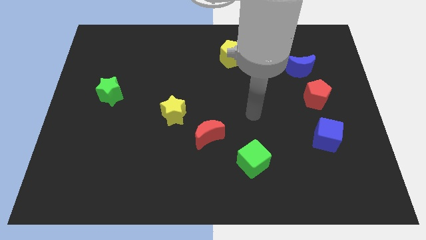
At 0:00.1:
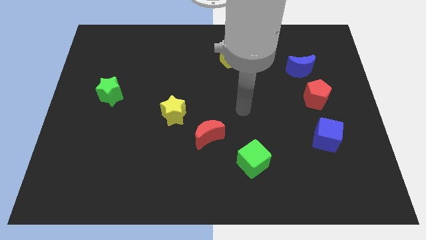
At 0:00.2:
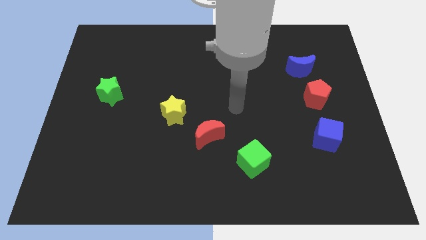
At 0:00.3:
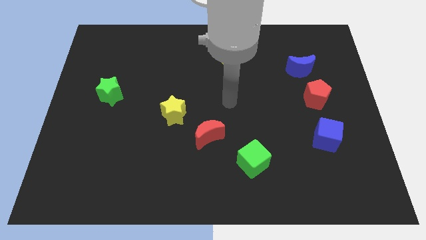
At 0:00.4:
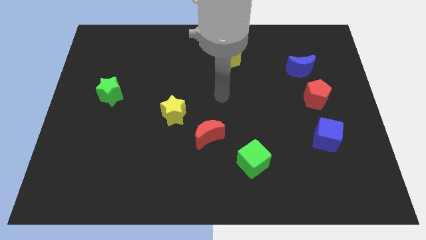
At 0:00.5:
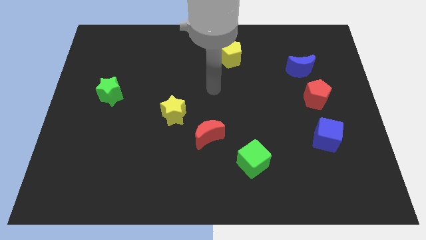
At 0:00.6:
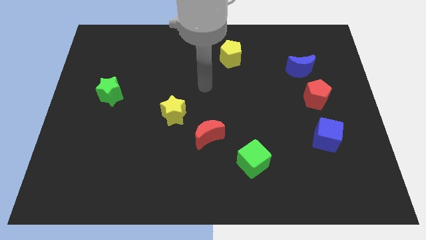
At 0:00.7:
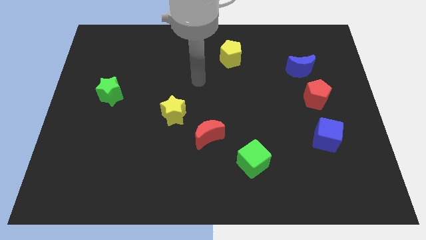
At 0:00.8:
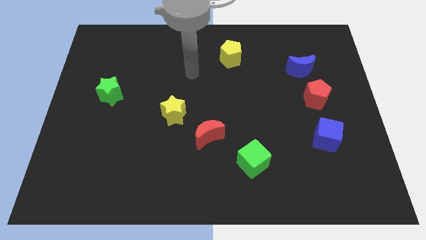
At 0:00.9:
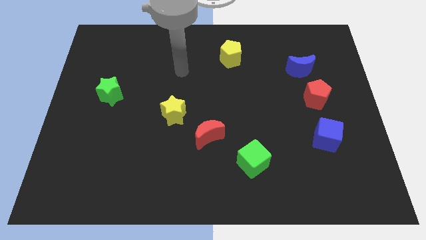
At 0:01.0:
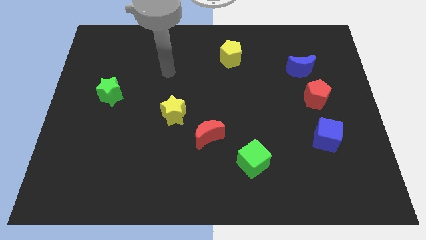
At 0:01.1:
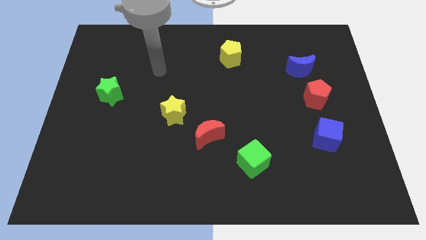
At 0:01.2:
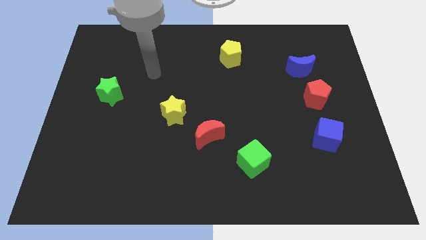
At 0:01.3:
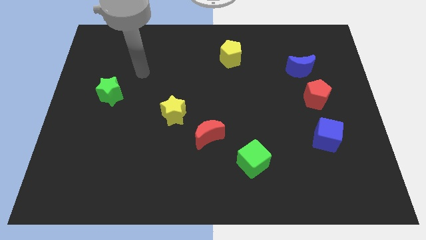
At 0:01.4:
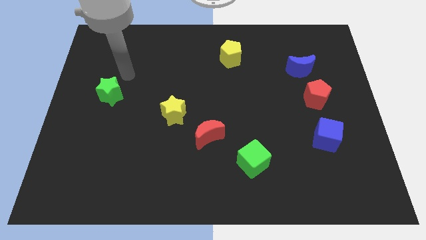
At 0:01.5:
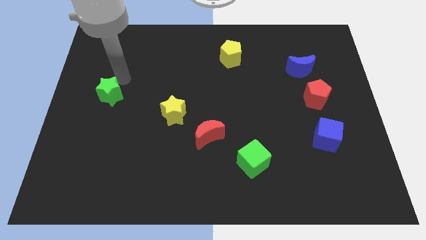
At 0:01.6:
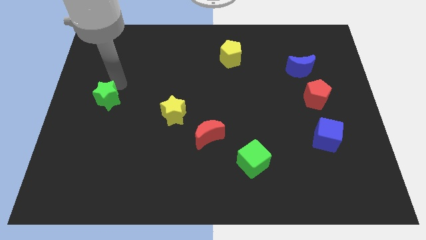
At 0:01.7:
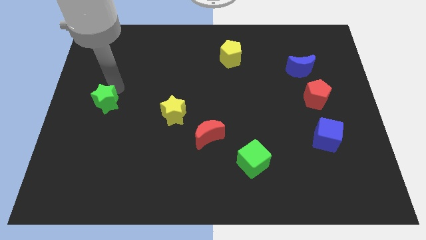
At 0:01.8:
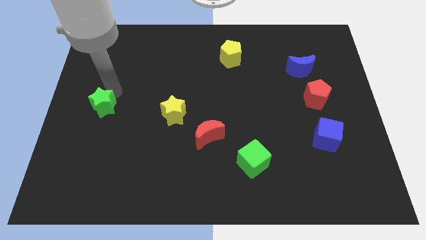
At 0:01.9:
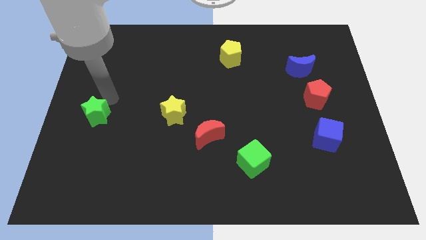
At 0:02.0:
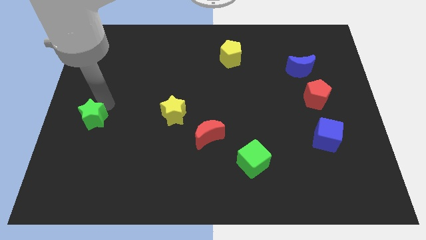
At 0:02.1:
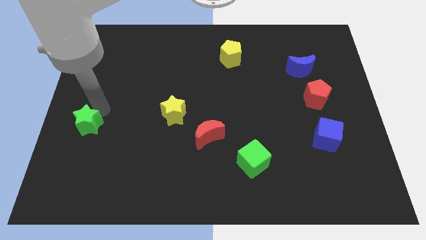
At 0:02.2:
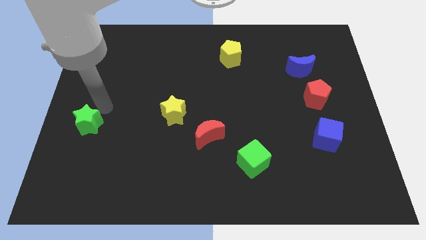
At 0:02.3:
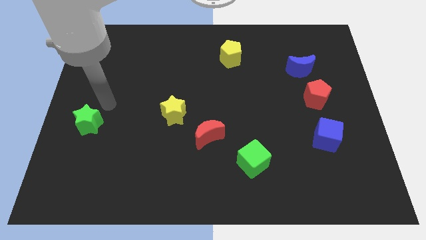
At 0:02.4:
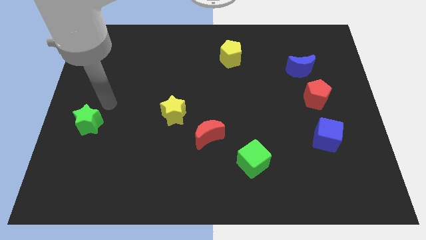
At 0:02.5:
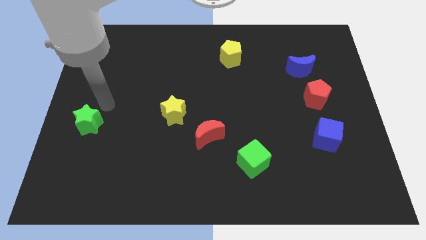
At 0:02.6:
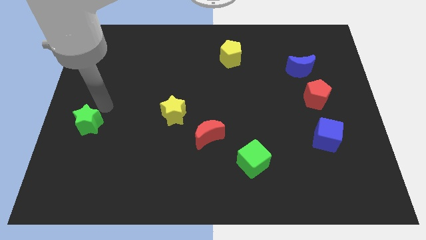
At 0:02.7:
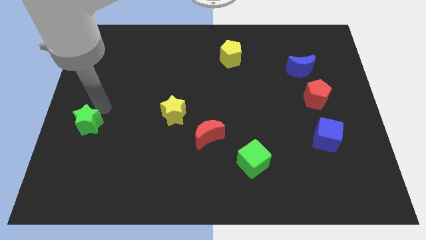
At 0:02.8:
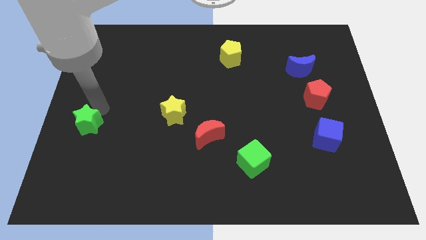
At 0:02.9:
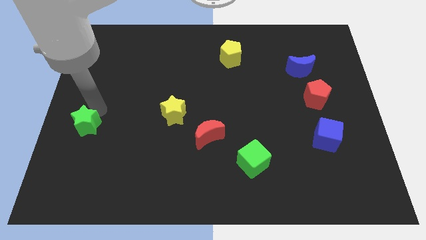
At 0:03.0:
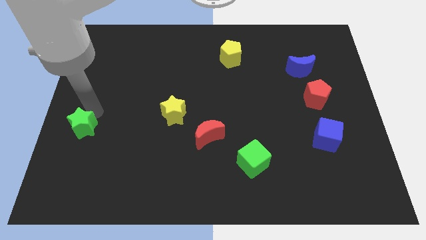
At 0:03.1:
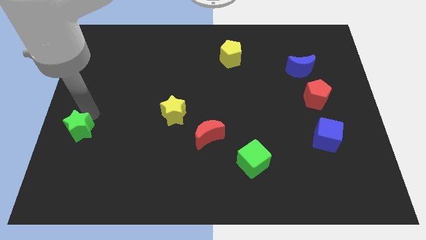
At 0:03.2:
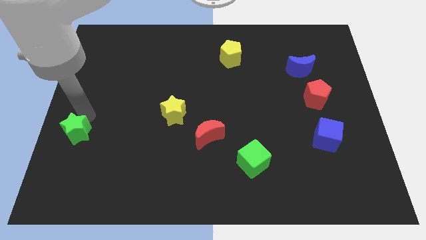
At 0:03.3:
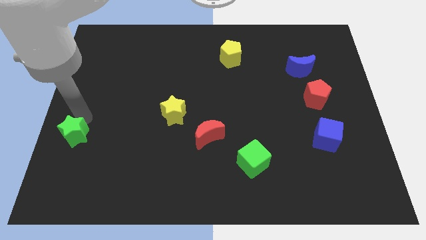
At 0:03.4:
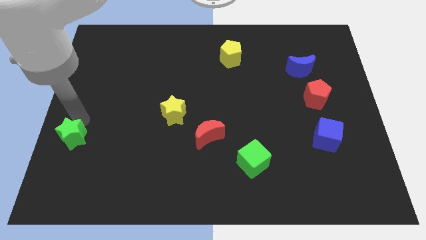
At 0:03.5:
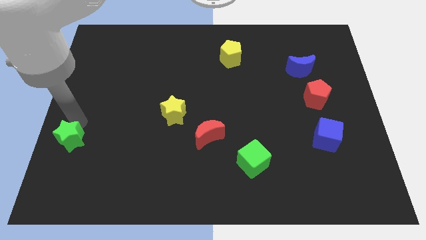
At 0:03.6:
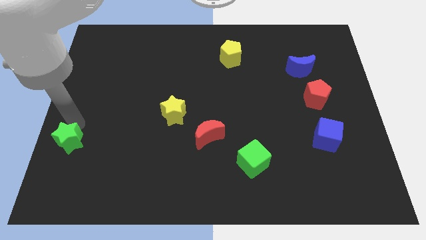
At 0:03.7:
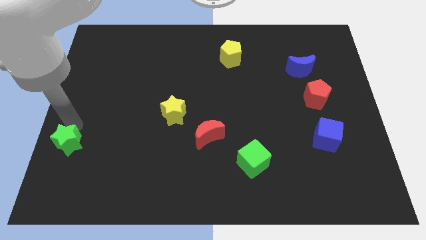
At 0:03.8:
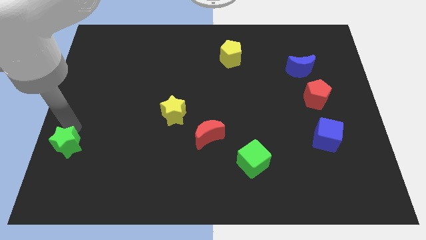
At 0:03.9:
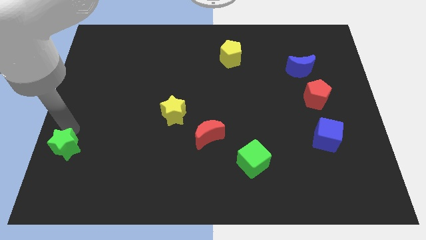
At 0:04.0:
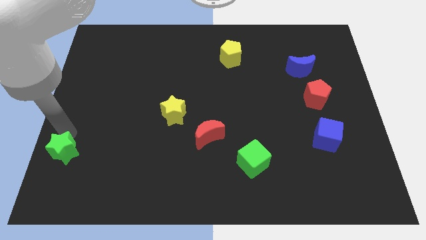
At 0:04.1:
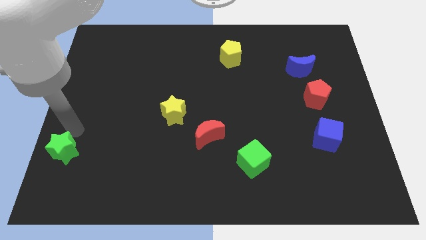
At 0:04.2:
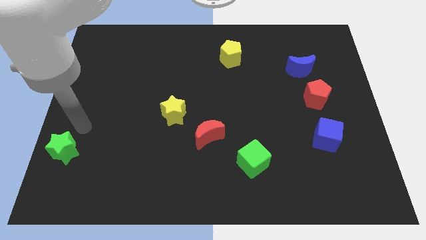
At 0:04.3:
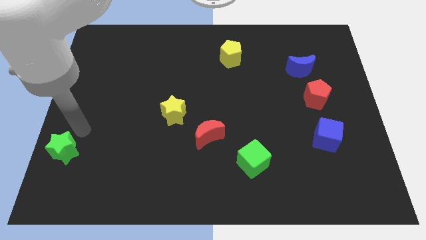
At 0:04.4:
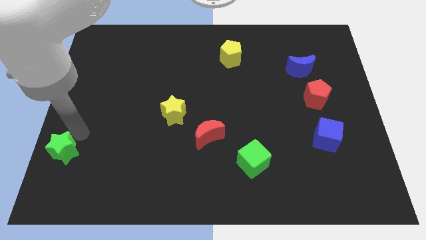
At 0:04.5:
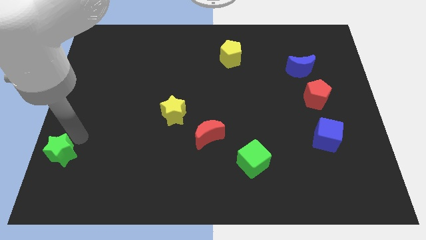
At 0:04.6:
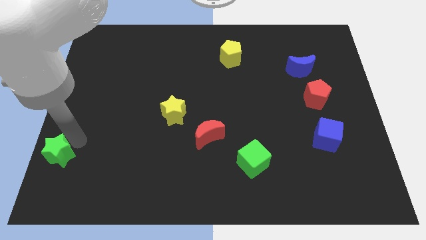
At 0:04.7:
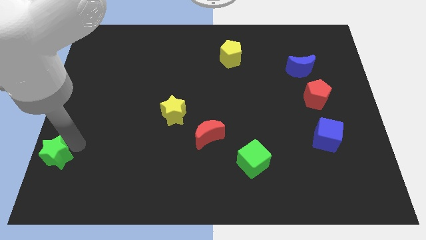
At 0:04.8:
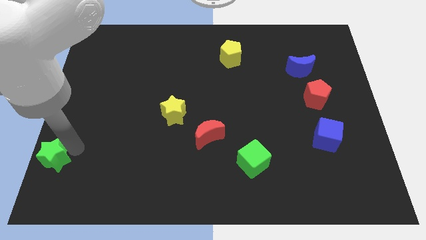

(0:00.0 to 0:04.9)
push the green star to the bottom left of the board
